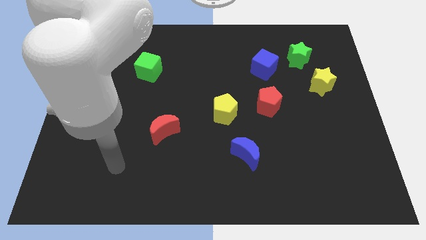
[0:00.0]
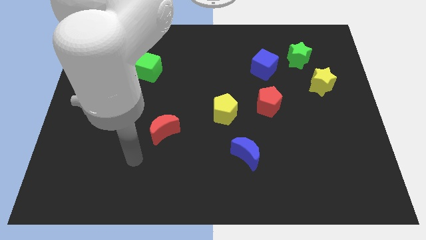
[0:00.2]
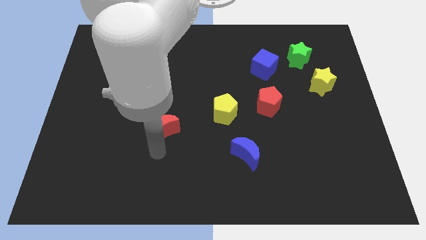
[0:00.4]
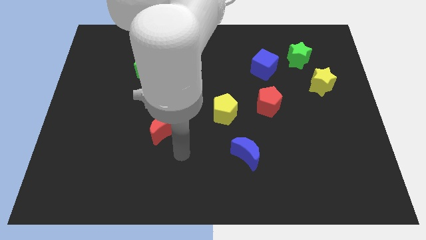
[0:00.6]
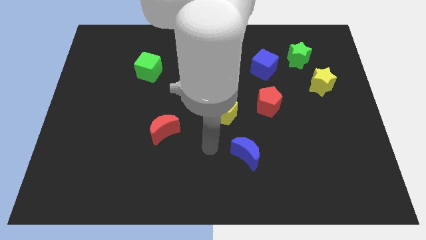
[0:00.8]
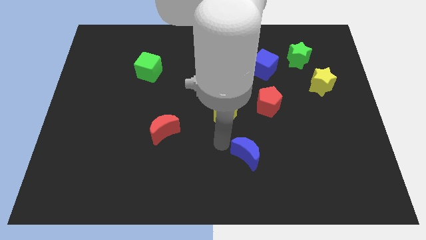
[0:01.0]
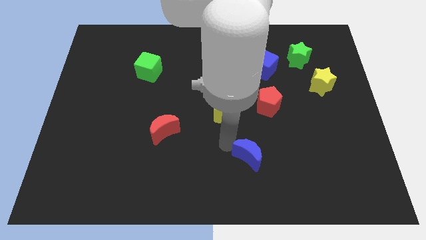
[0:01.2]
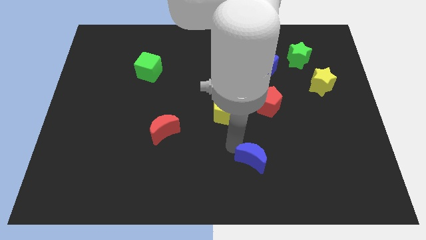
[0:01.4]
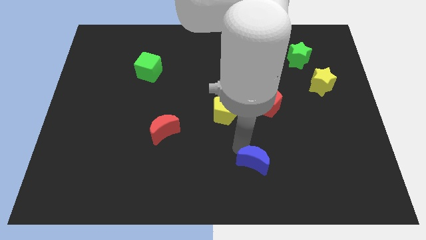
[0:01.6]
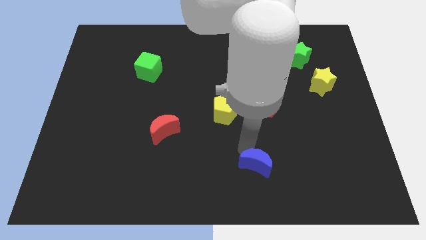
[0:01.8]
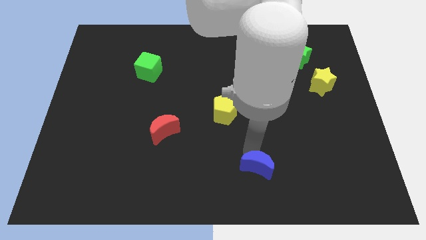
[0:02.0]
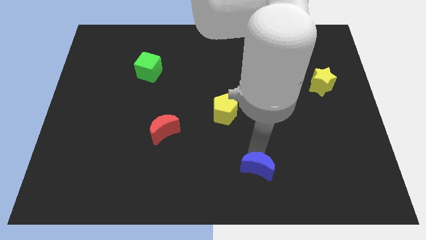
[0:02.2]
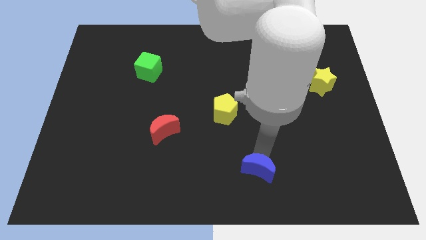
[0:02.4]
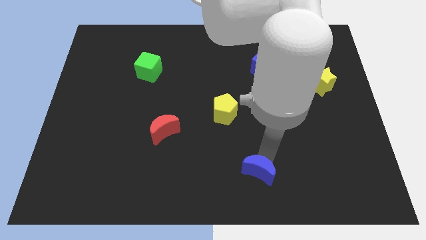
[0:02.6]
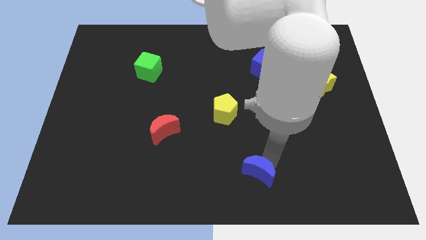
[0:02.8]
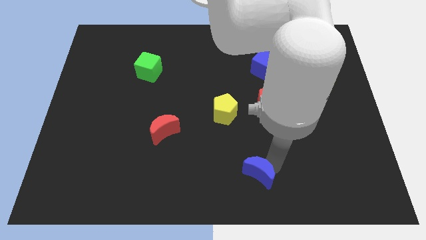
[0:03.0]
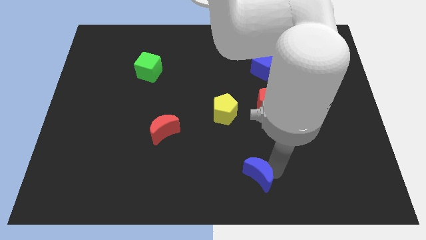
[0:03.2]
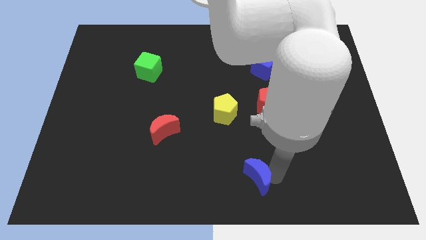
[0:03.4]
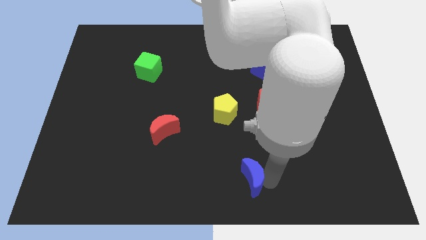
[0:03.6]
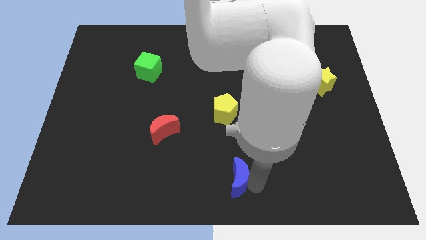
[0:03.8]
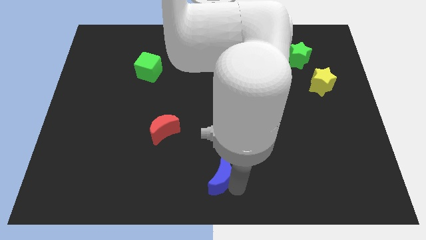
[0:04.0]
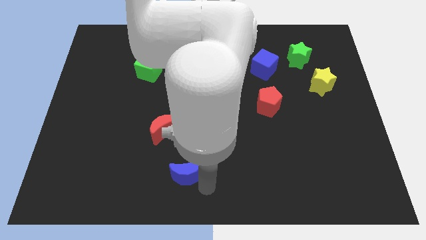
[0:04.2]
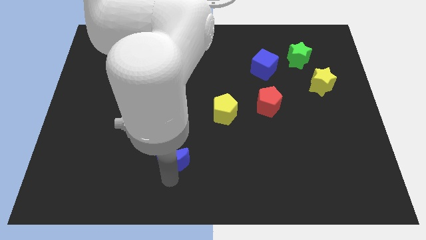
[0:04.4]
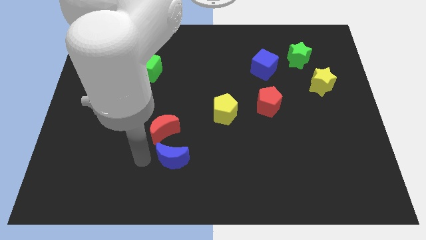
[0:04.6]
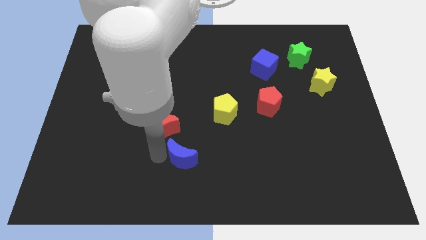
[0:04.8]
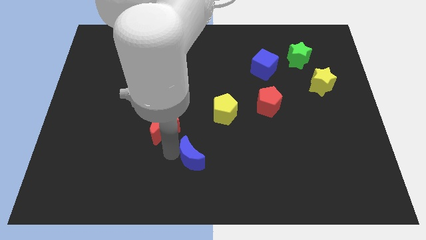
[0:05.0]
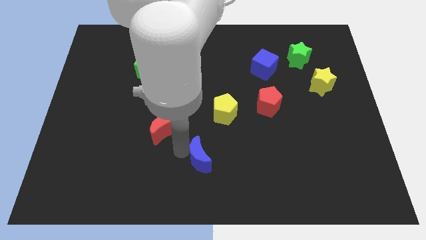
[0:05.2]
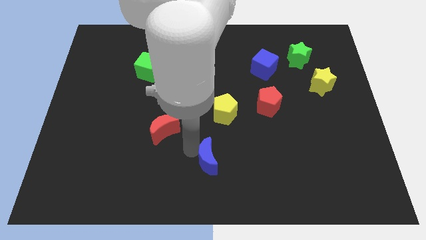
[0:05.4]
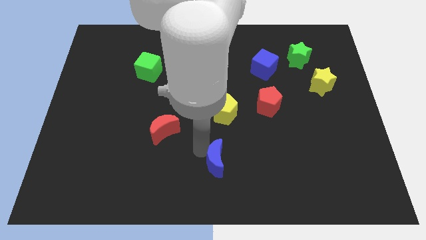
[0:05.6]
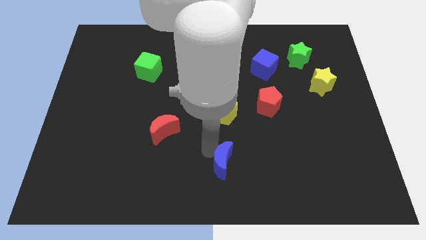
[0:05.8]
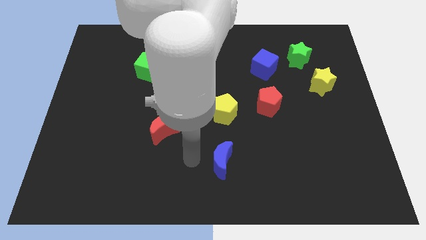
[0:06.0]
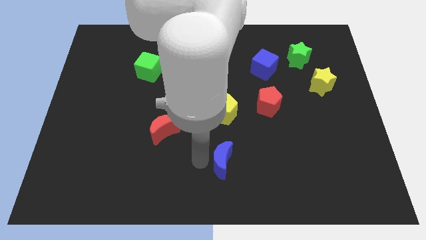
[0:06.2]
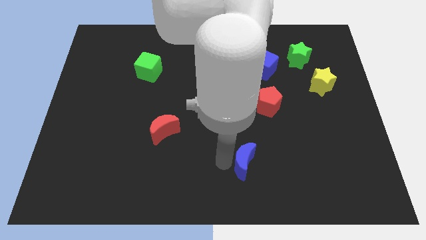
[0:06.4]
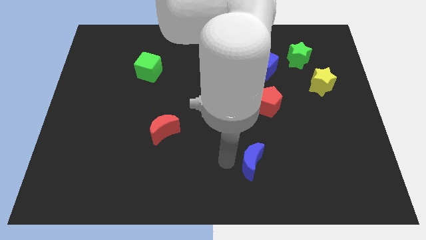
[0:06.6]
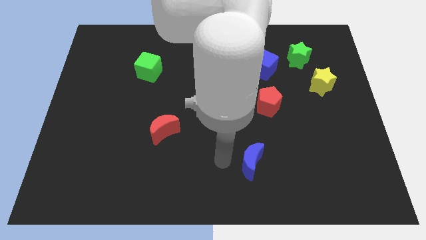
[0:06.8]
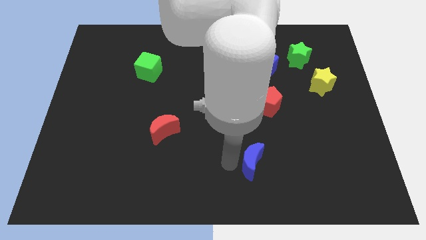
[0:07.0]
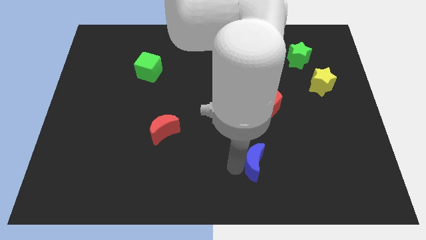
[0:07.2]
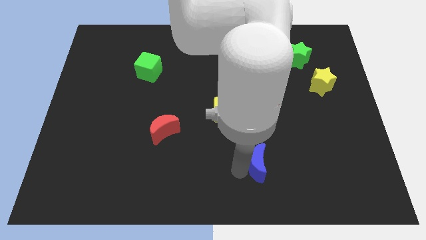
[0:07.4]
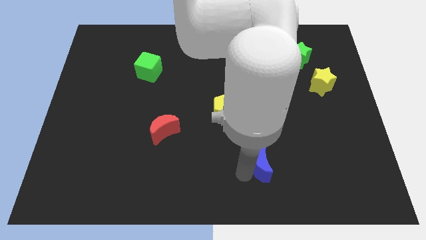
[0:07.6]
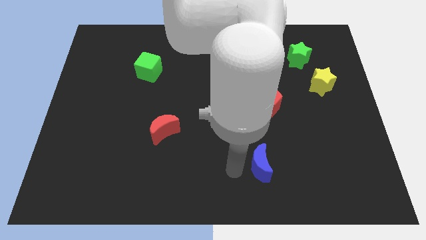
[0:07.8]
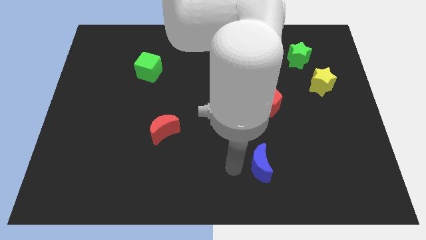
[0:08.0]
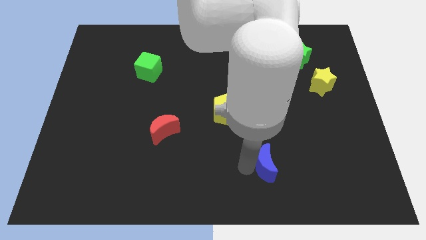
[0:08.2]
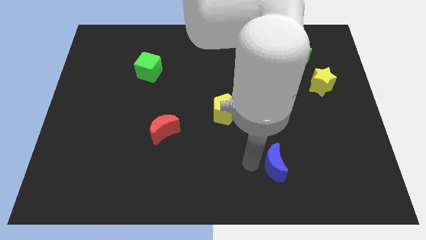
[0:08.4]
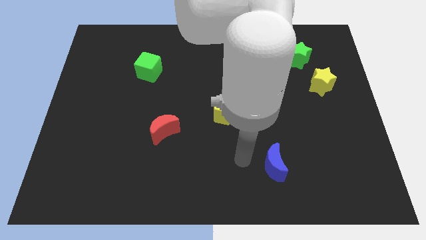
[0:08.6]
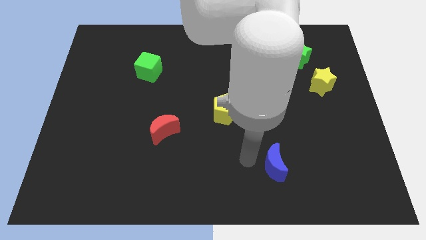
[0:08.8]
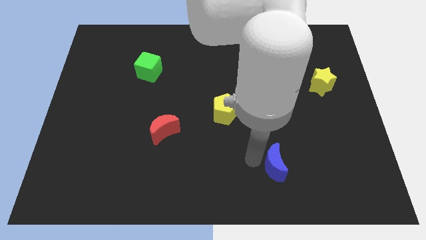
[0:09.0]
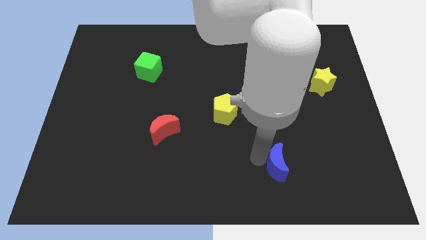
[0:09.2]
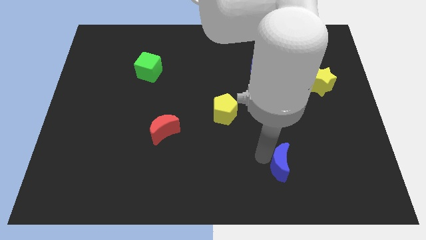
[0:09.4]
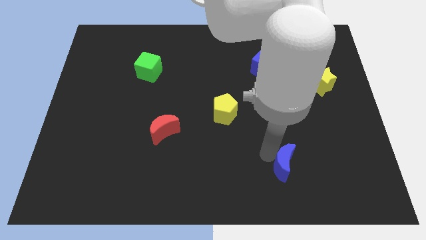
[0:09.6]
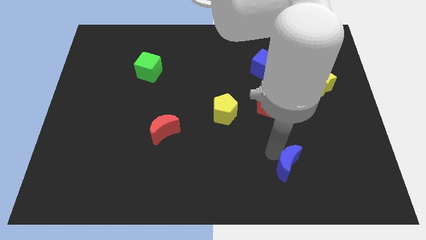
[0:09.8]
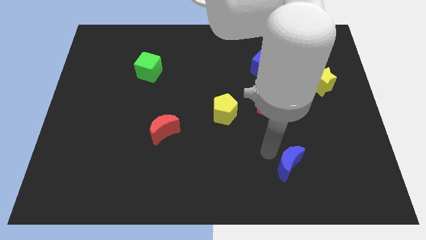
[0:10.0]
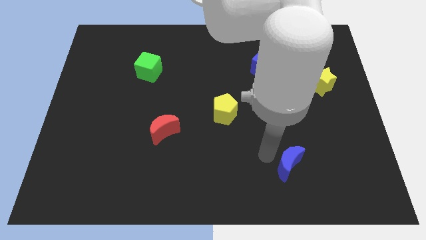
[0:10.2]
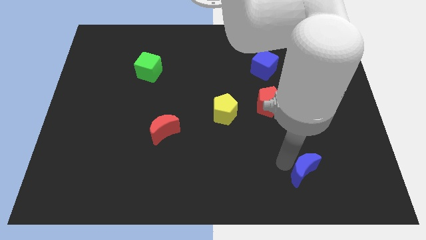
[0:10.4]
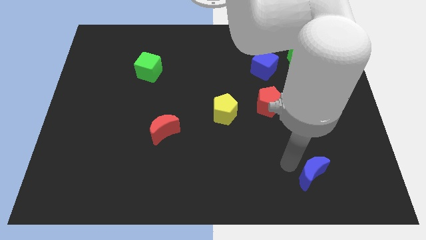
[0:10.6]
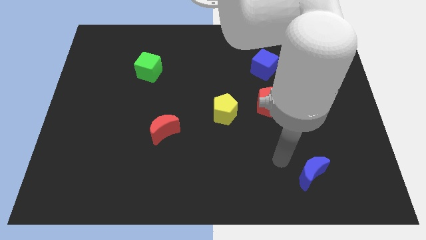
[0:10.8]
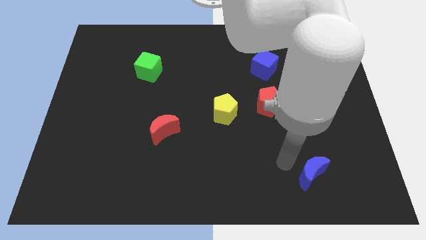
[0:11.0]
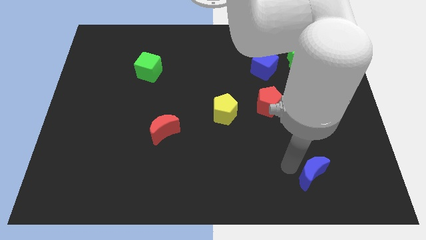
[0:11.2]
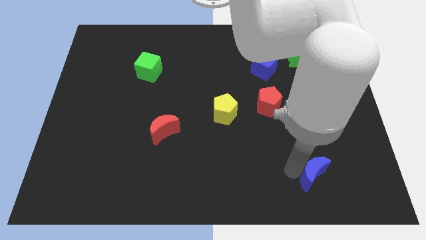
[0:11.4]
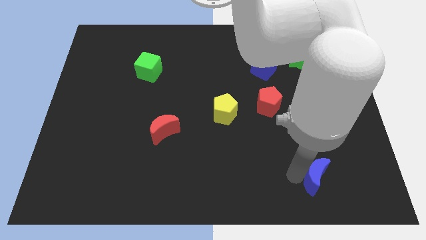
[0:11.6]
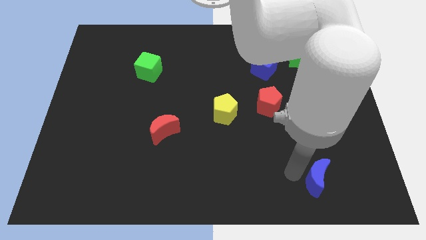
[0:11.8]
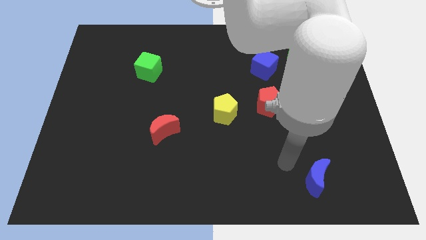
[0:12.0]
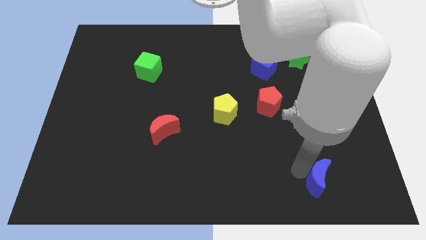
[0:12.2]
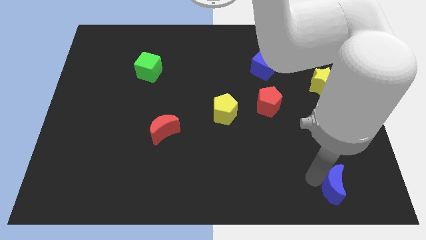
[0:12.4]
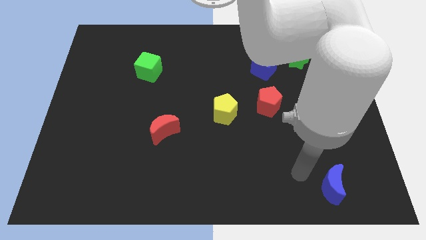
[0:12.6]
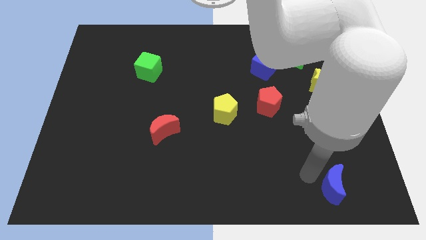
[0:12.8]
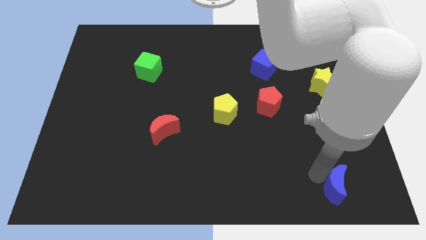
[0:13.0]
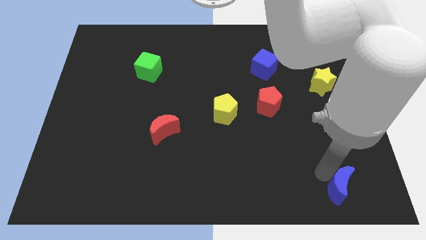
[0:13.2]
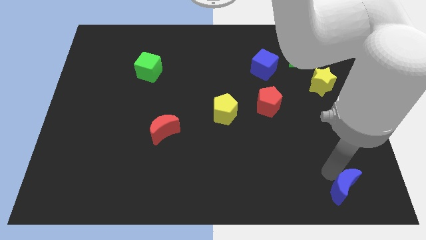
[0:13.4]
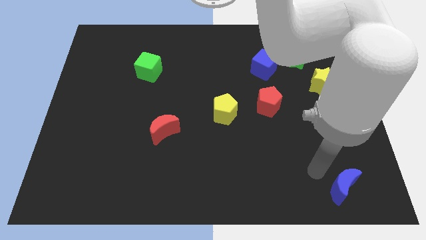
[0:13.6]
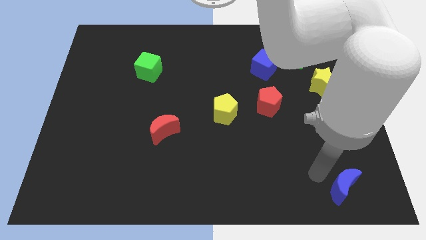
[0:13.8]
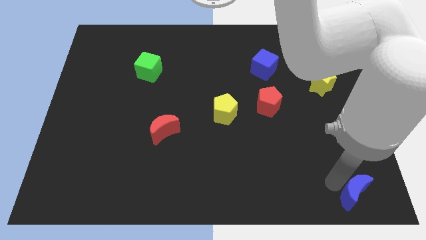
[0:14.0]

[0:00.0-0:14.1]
move the blue moon to the bottom right

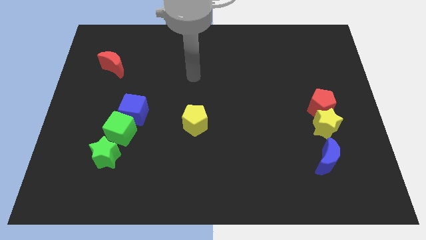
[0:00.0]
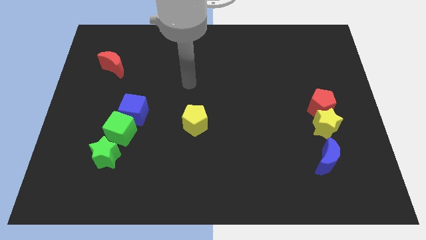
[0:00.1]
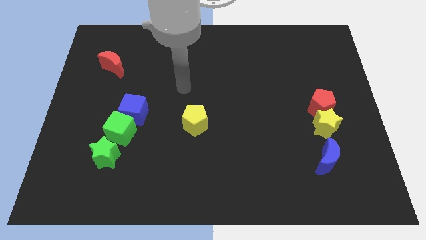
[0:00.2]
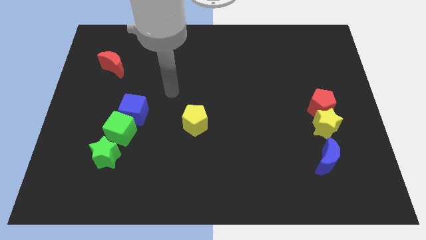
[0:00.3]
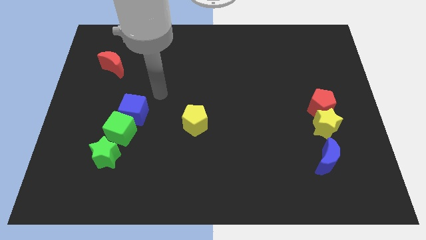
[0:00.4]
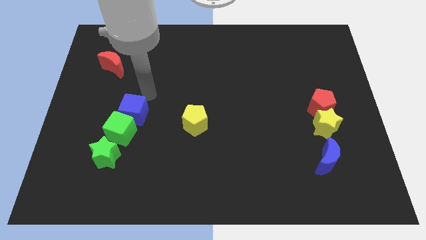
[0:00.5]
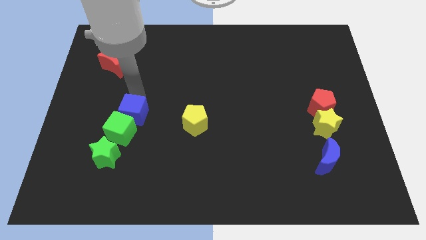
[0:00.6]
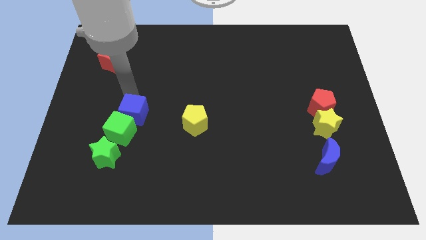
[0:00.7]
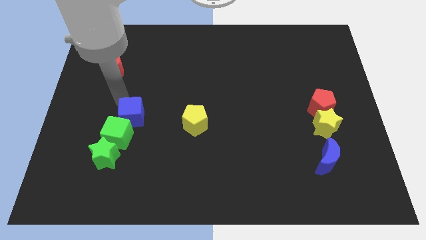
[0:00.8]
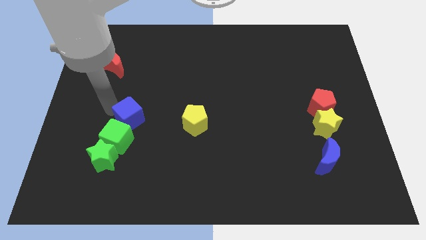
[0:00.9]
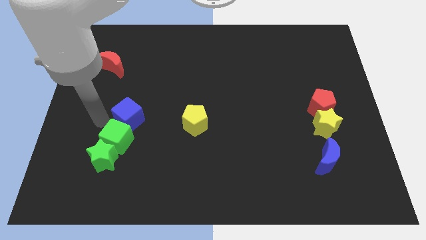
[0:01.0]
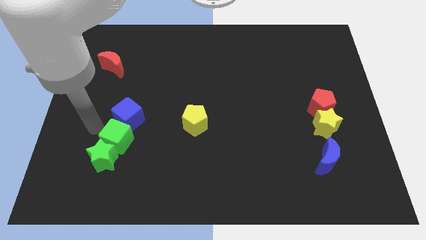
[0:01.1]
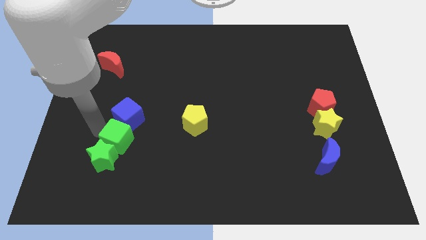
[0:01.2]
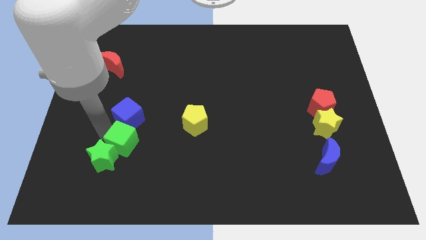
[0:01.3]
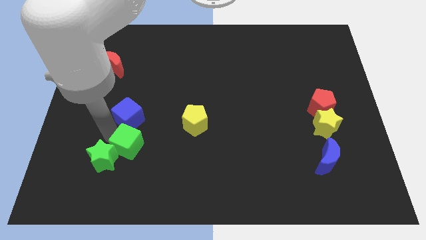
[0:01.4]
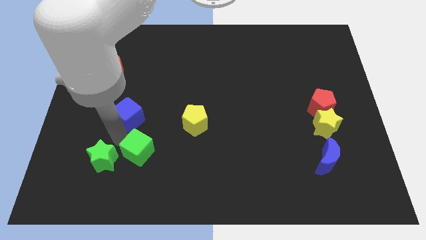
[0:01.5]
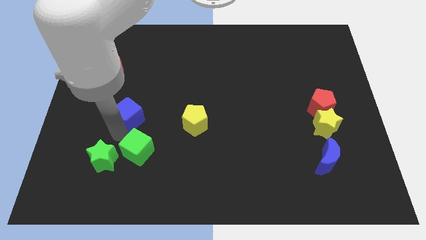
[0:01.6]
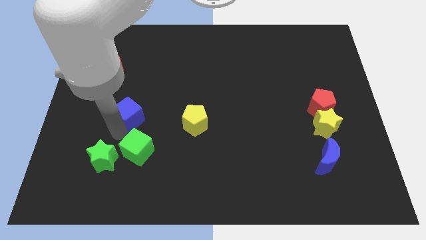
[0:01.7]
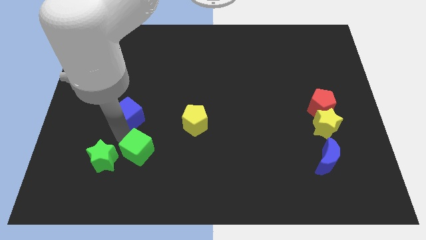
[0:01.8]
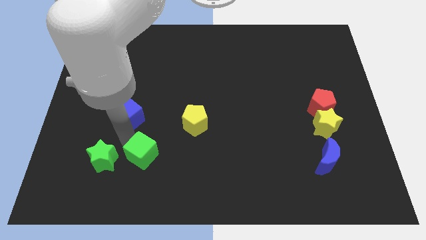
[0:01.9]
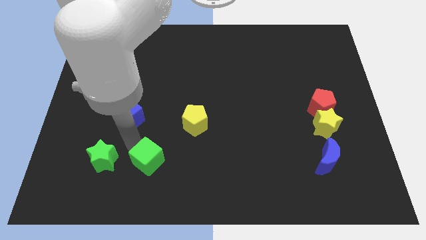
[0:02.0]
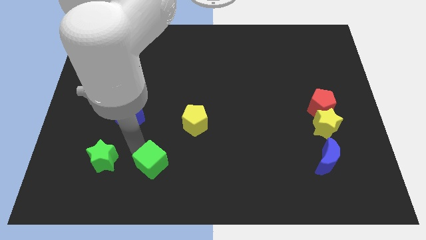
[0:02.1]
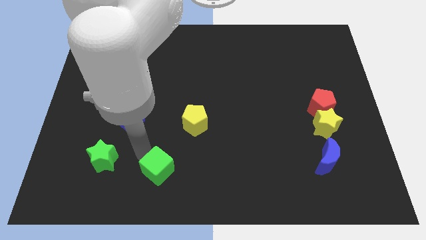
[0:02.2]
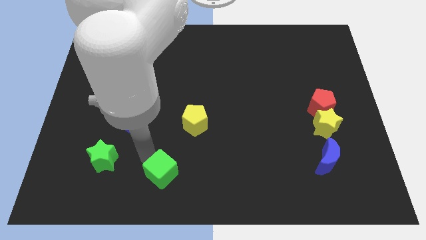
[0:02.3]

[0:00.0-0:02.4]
push the green cube to the bottom side
